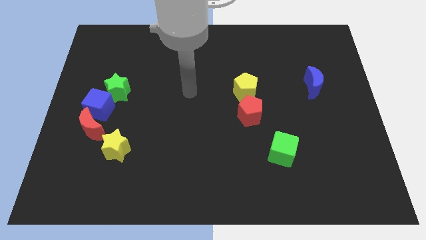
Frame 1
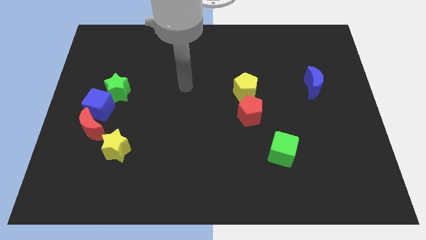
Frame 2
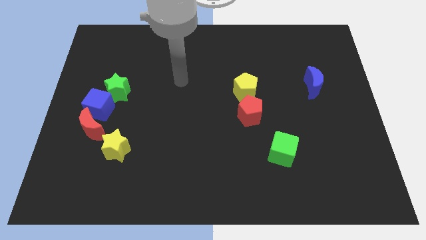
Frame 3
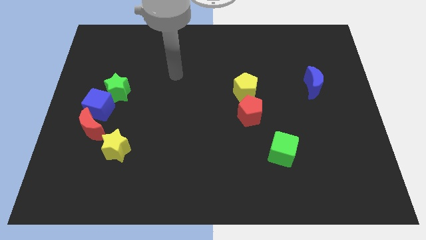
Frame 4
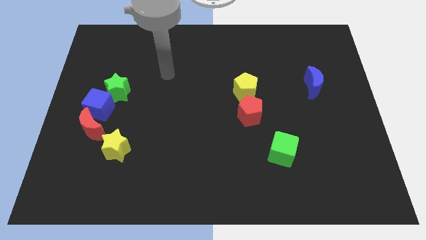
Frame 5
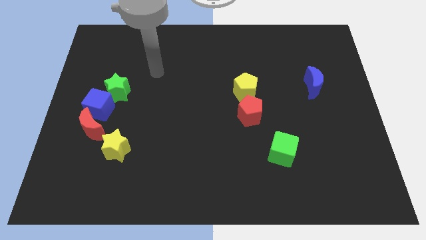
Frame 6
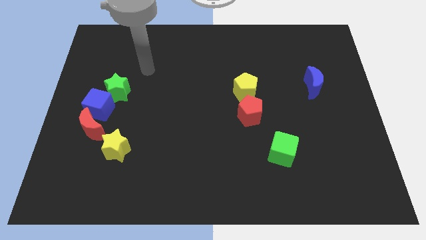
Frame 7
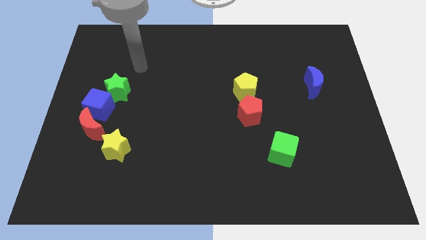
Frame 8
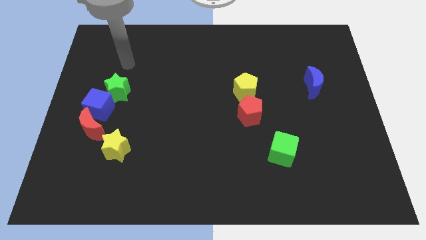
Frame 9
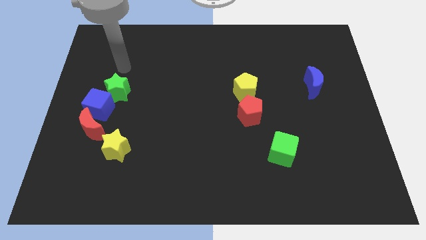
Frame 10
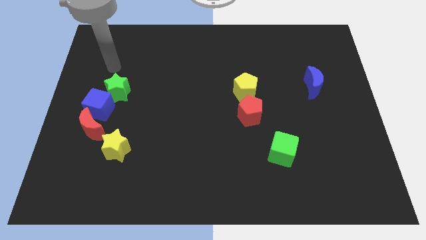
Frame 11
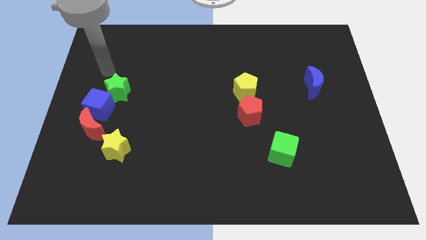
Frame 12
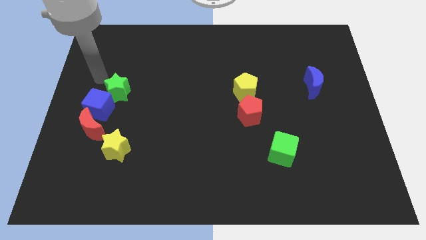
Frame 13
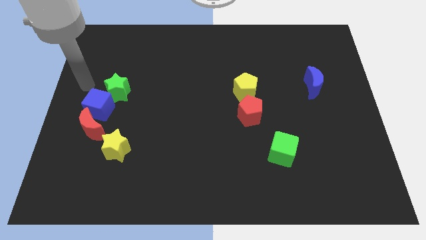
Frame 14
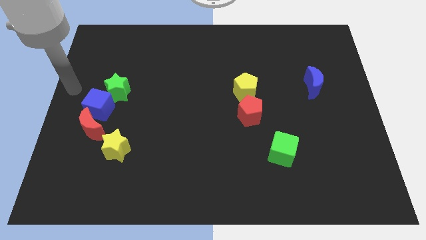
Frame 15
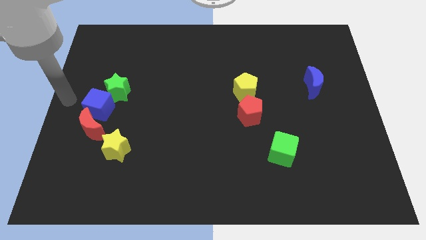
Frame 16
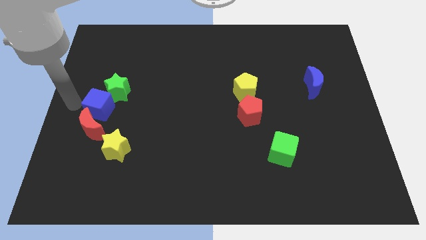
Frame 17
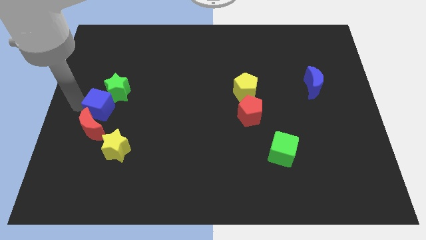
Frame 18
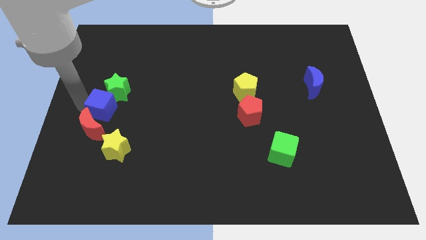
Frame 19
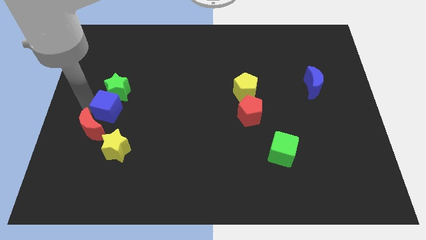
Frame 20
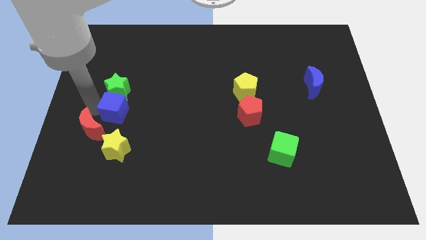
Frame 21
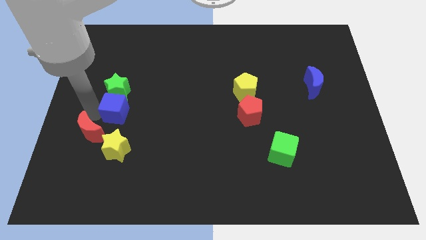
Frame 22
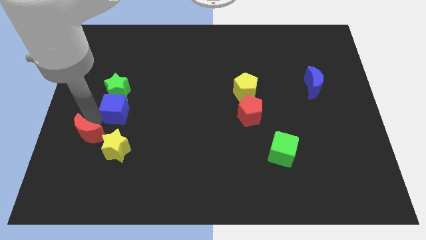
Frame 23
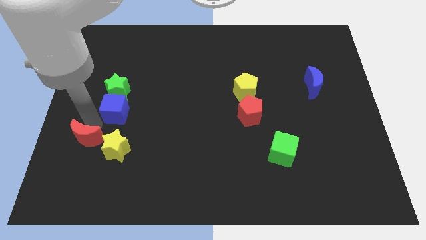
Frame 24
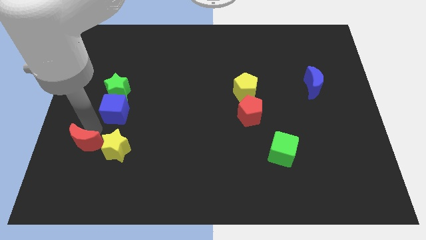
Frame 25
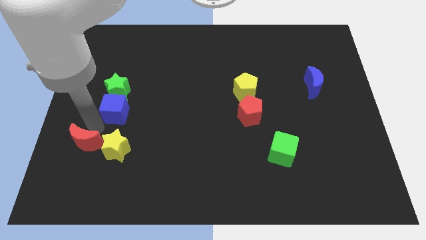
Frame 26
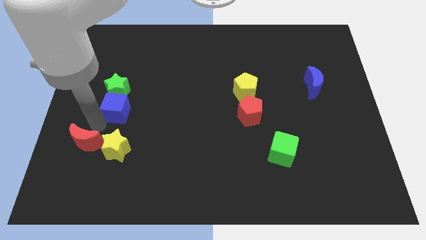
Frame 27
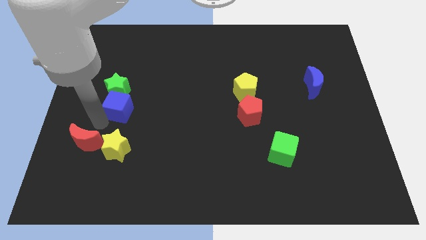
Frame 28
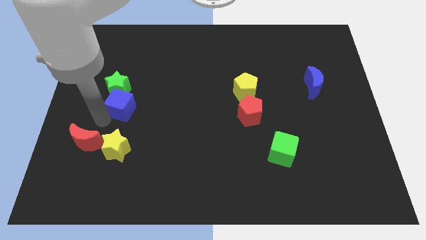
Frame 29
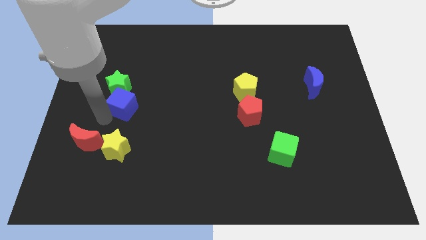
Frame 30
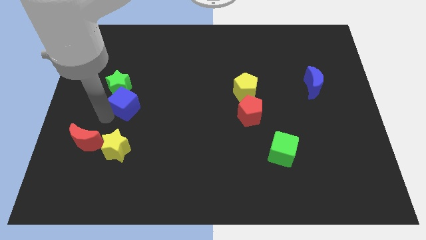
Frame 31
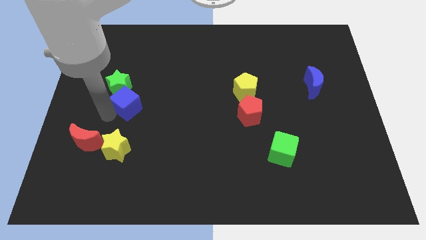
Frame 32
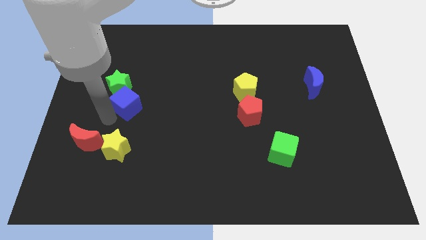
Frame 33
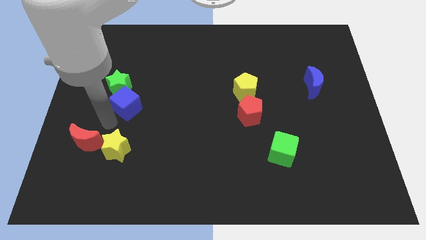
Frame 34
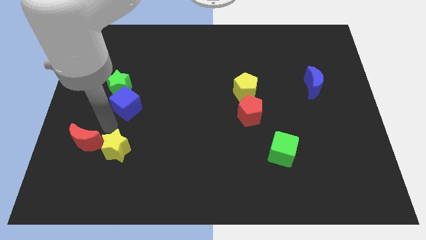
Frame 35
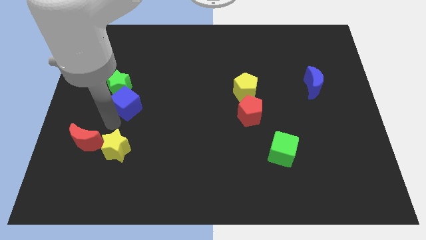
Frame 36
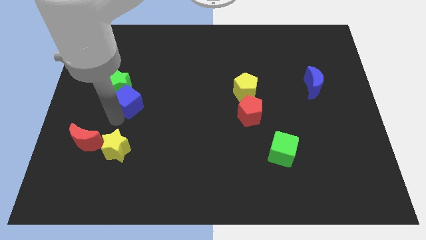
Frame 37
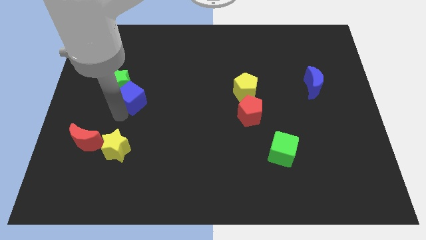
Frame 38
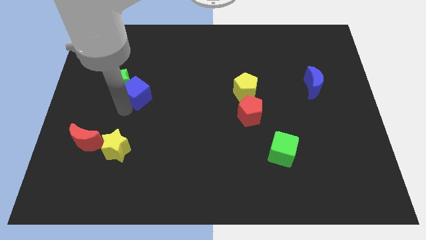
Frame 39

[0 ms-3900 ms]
move the blue cube slightly upwards and right

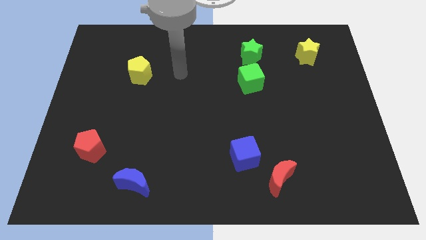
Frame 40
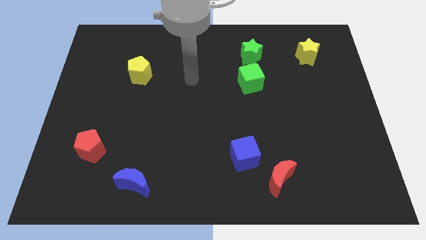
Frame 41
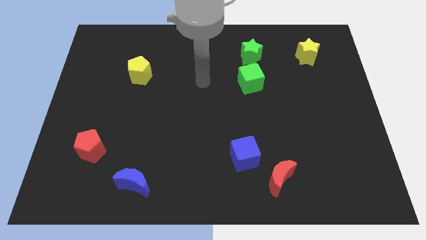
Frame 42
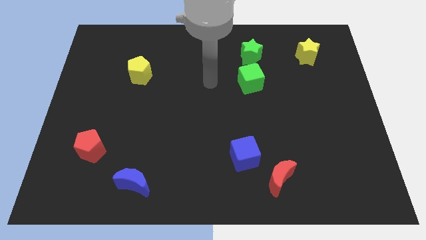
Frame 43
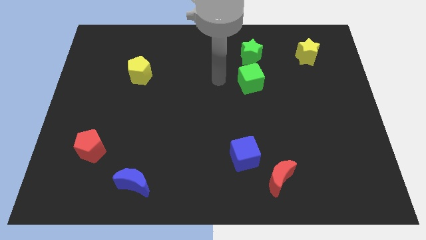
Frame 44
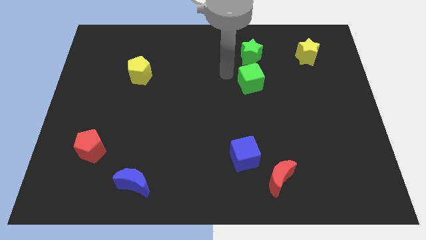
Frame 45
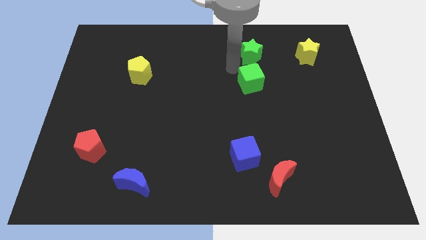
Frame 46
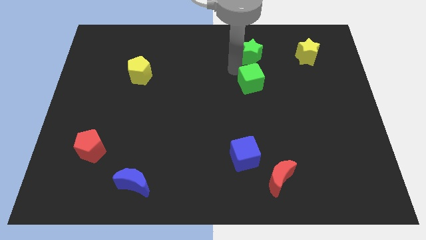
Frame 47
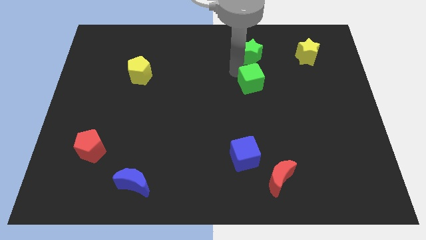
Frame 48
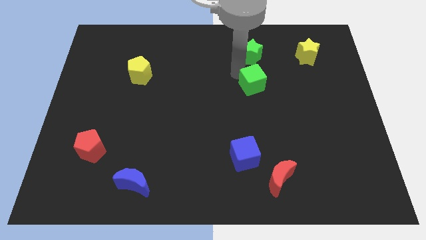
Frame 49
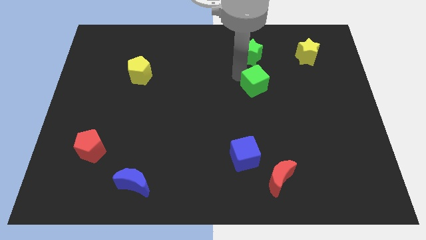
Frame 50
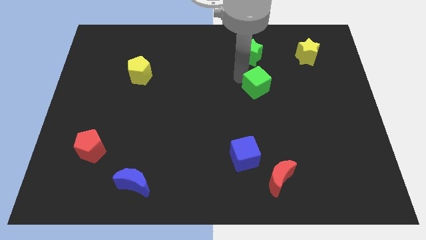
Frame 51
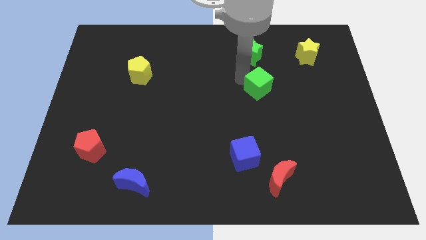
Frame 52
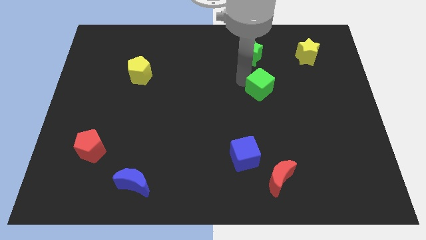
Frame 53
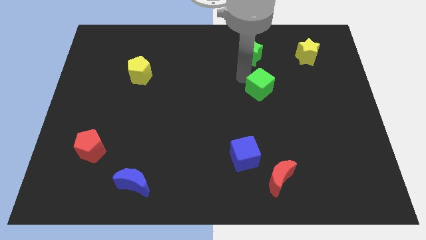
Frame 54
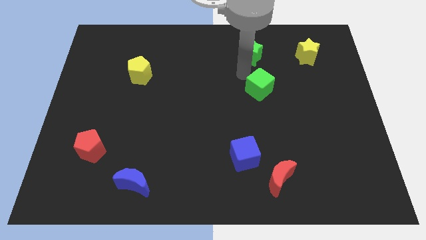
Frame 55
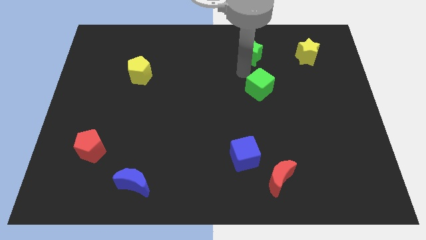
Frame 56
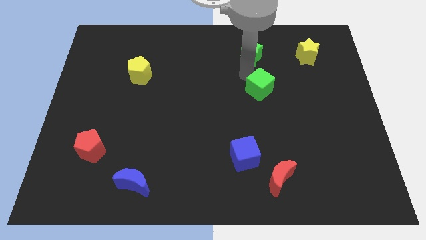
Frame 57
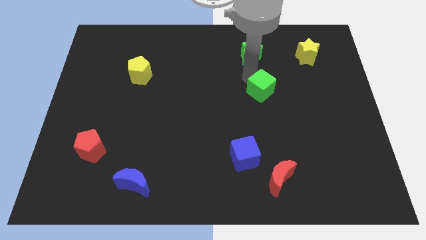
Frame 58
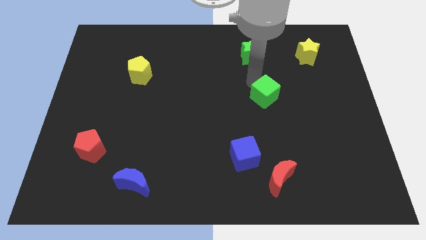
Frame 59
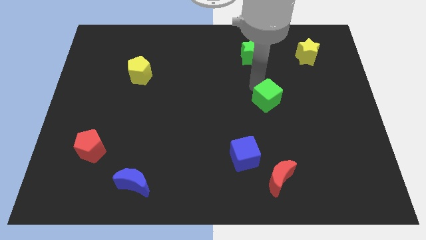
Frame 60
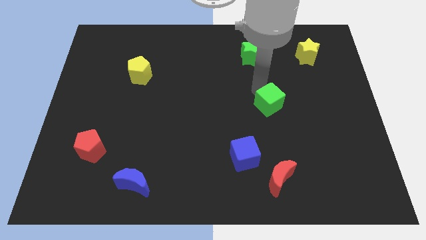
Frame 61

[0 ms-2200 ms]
push the green cube slightly downwards and right

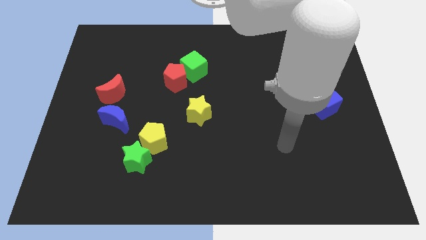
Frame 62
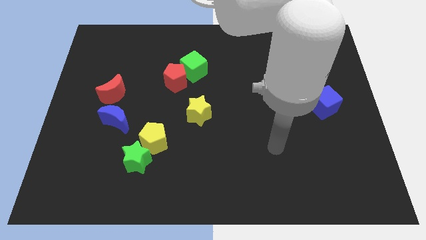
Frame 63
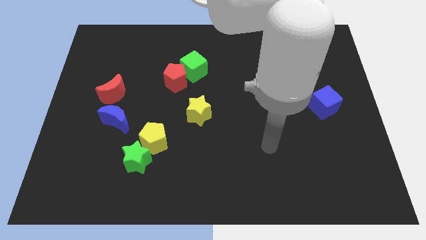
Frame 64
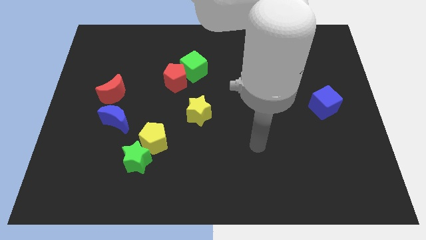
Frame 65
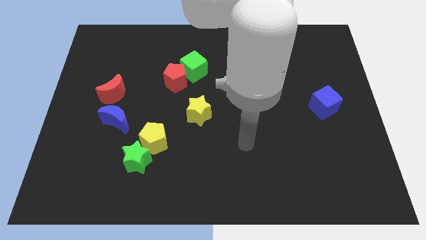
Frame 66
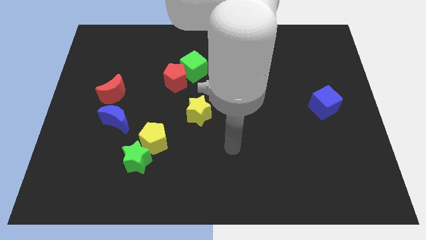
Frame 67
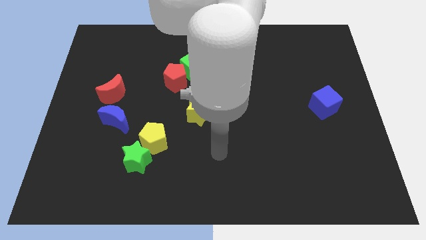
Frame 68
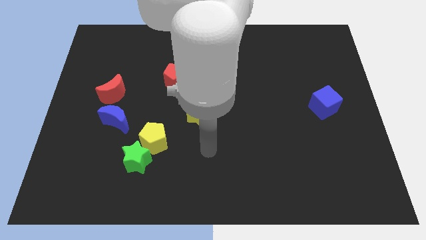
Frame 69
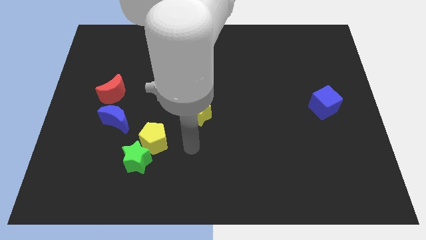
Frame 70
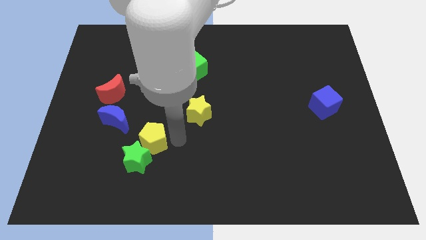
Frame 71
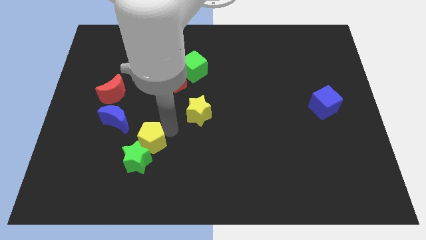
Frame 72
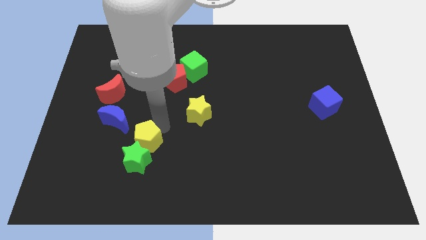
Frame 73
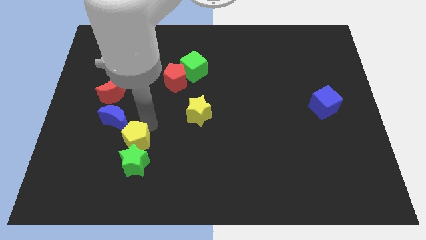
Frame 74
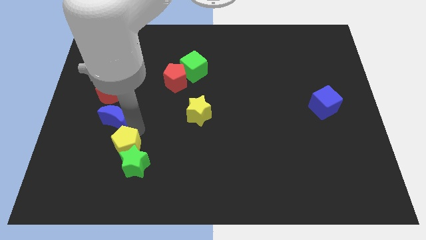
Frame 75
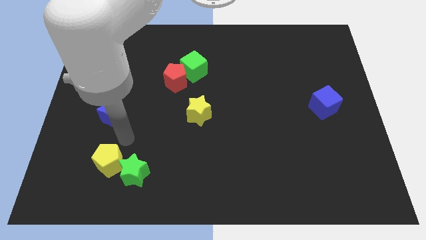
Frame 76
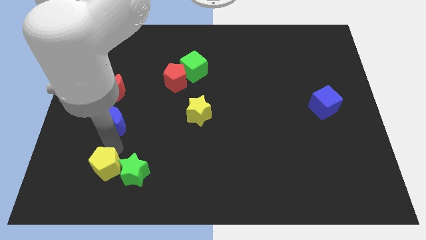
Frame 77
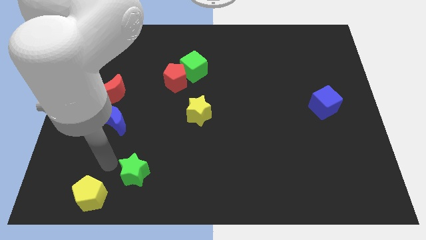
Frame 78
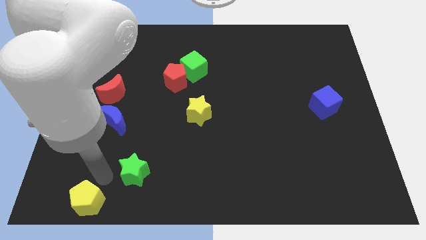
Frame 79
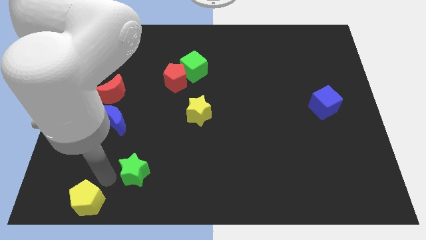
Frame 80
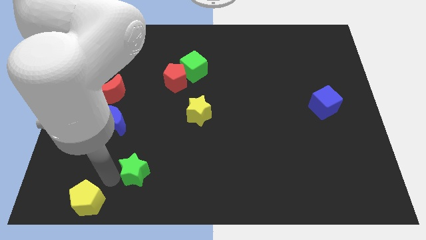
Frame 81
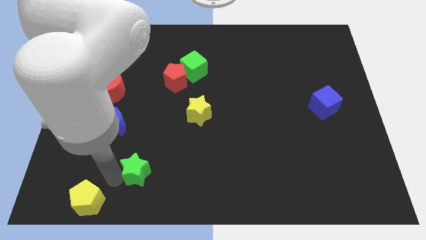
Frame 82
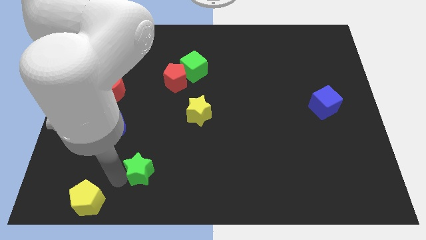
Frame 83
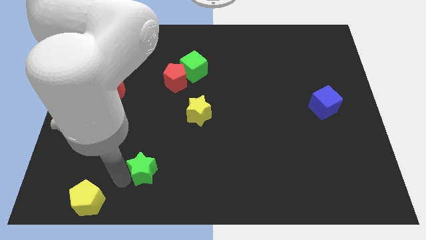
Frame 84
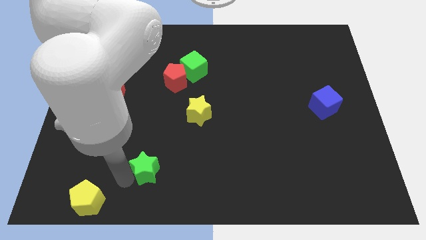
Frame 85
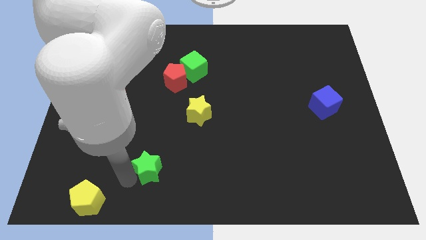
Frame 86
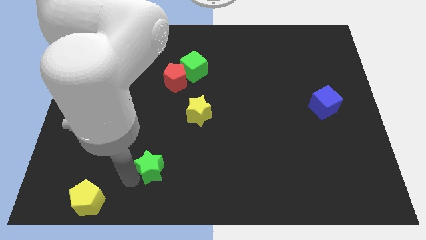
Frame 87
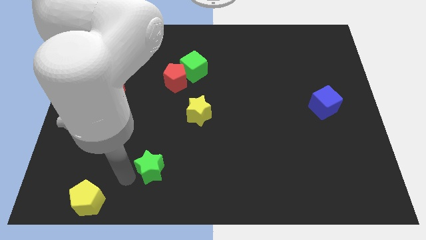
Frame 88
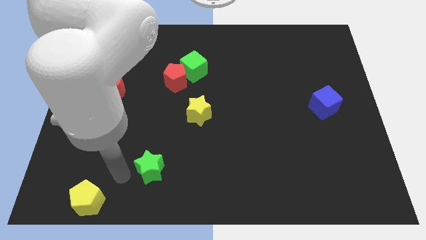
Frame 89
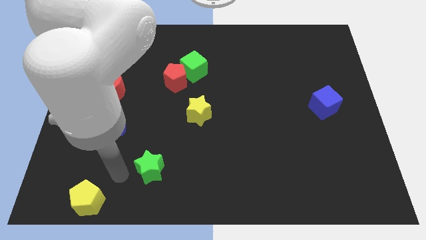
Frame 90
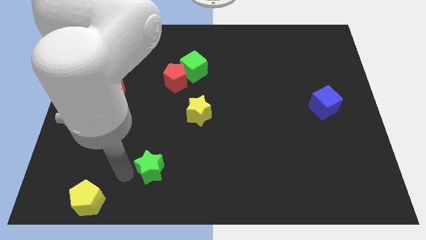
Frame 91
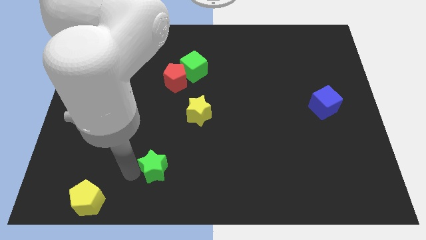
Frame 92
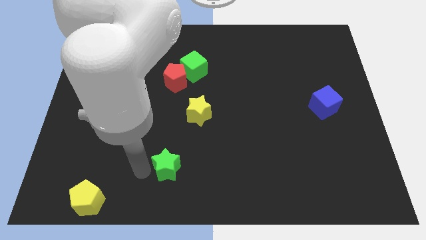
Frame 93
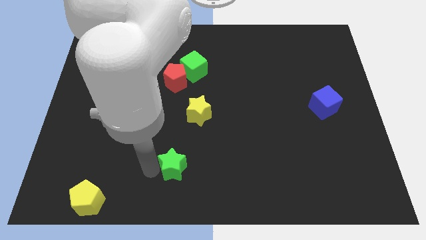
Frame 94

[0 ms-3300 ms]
move the green star a bit to the right
